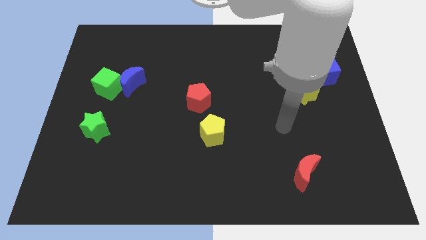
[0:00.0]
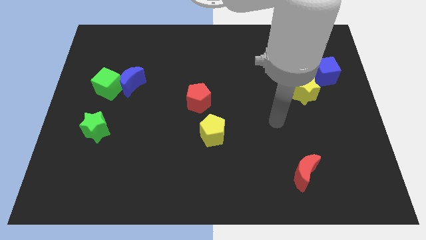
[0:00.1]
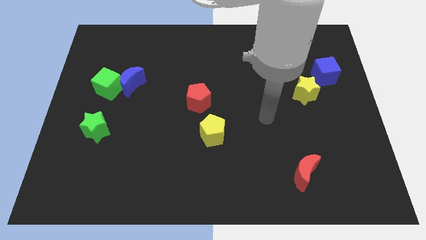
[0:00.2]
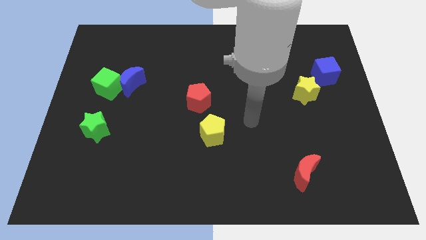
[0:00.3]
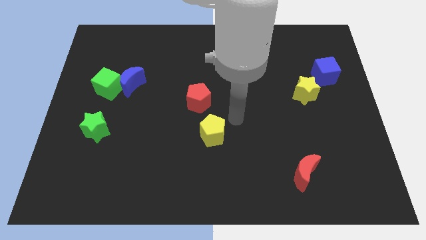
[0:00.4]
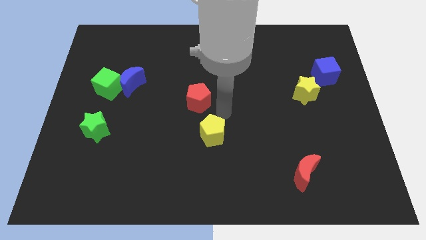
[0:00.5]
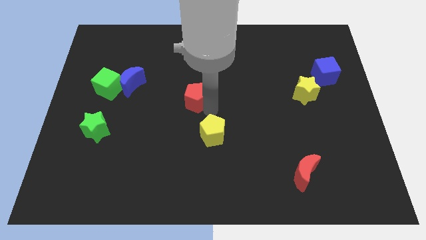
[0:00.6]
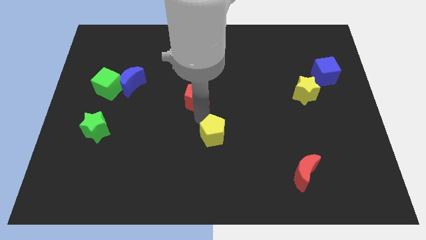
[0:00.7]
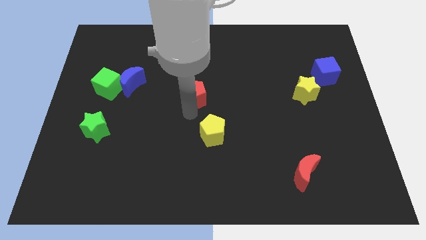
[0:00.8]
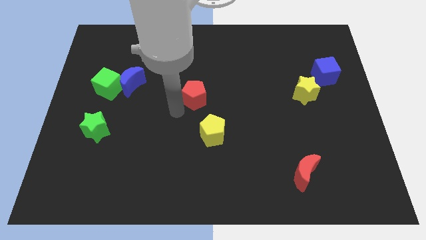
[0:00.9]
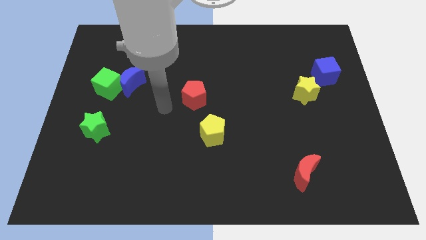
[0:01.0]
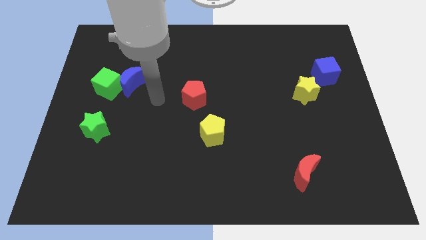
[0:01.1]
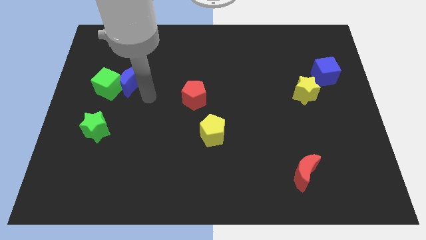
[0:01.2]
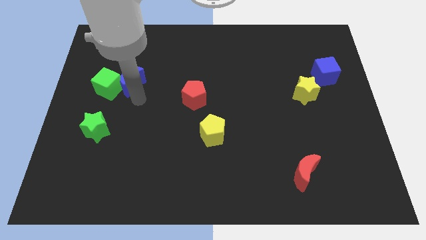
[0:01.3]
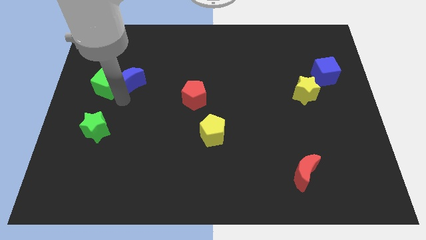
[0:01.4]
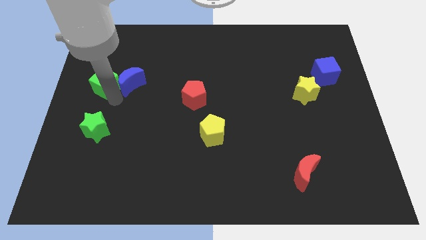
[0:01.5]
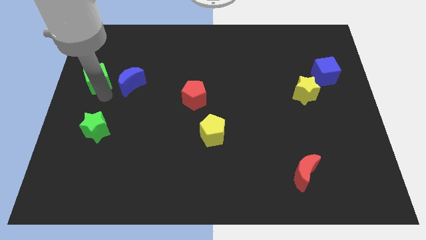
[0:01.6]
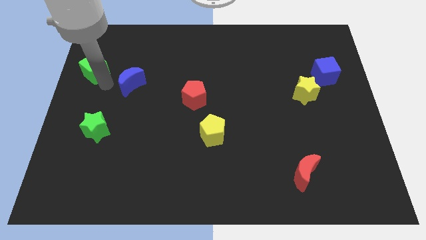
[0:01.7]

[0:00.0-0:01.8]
move the blue moon away from the green cube

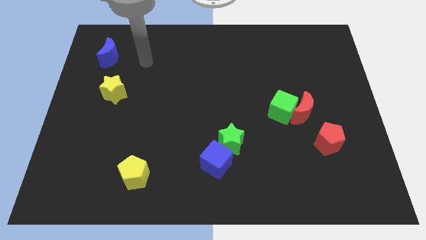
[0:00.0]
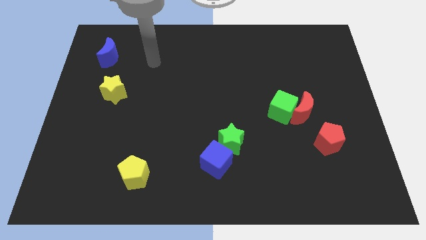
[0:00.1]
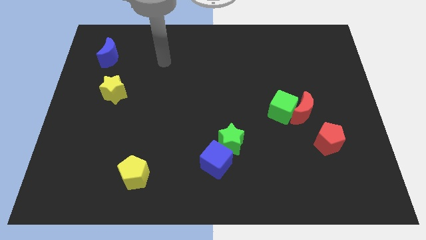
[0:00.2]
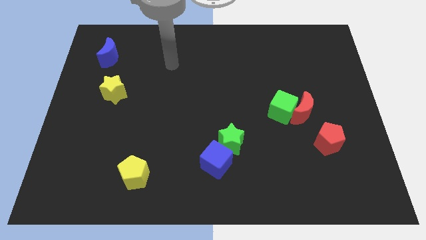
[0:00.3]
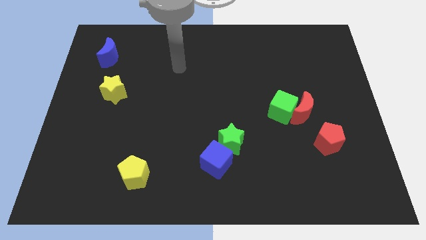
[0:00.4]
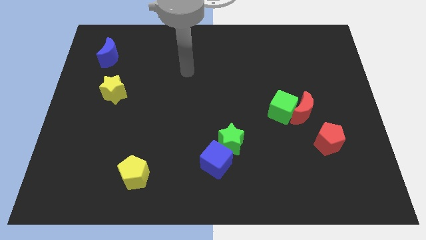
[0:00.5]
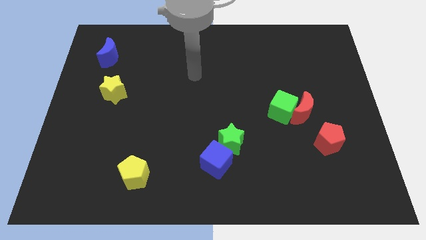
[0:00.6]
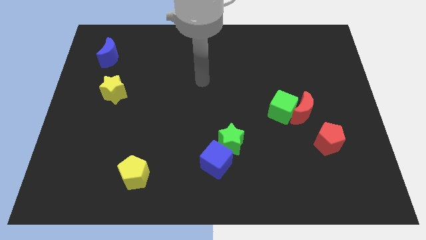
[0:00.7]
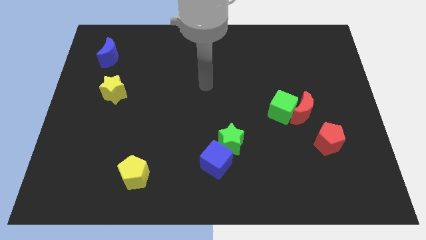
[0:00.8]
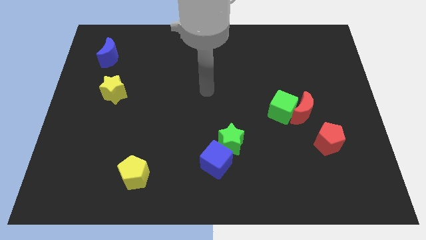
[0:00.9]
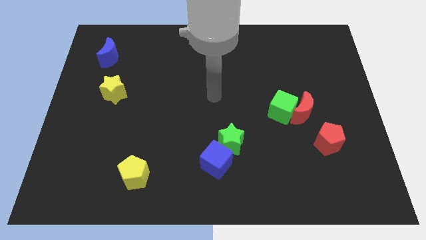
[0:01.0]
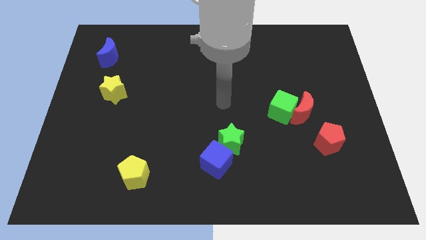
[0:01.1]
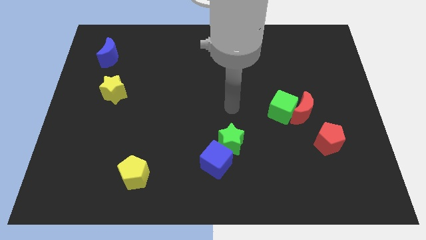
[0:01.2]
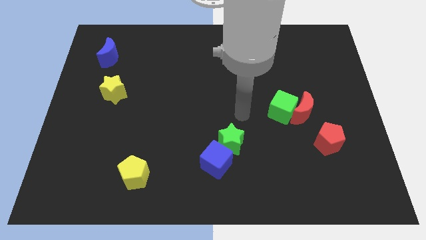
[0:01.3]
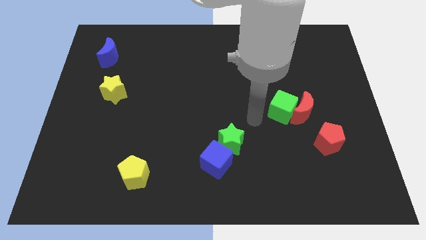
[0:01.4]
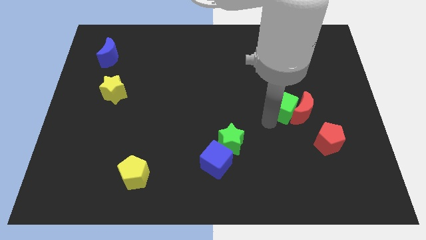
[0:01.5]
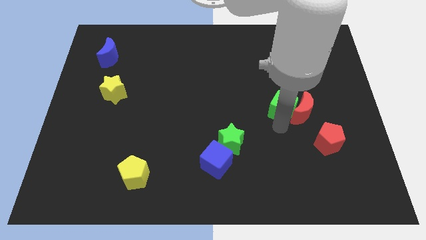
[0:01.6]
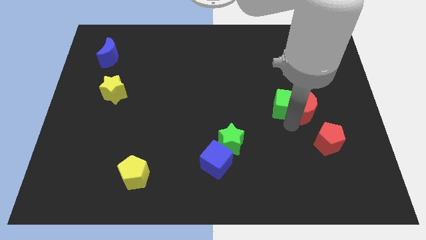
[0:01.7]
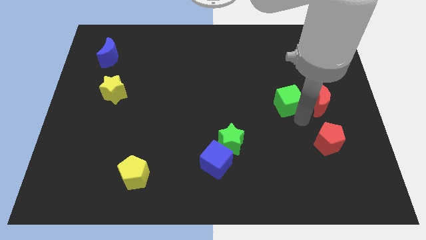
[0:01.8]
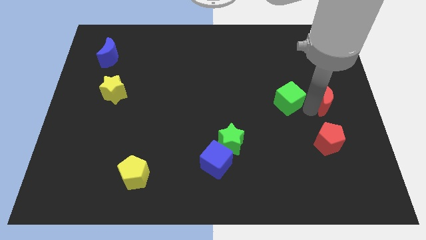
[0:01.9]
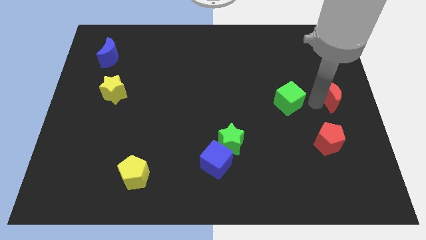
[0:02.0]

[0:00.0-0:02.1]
move the green cube away from the red moon

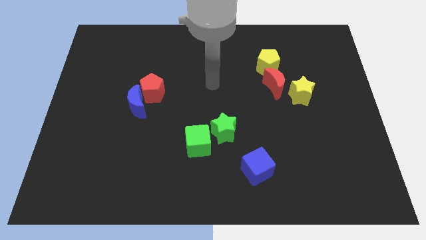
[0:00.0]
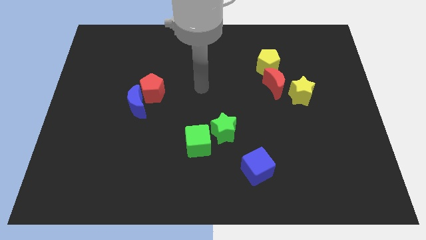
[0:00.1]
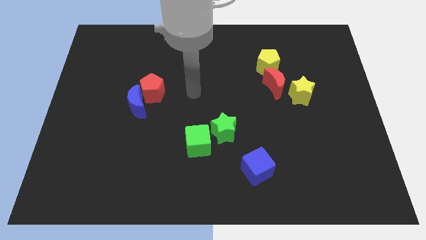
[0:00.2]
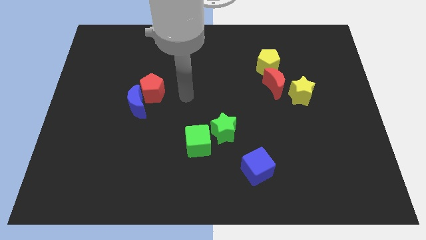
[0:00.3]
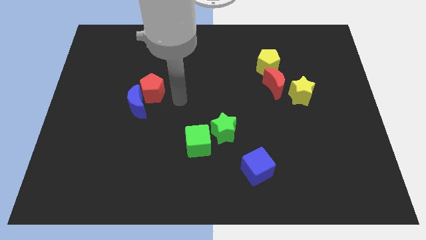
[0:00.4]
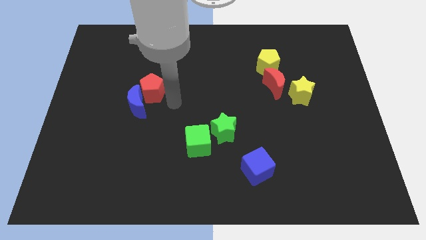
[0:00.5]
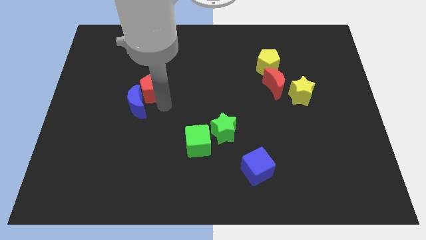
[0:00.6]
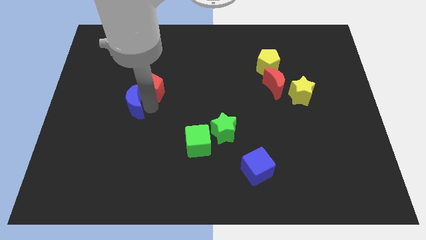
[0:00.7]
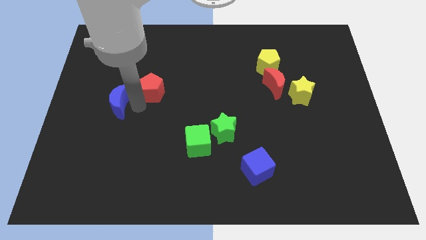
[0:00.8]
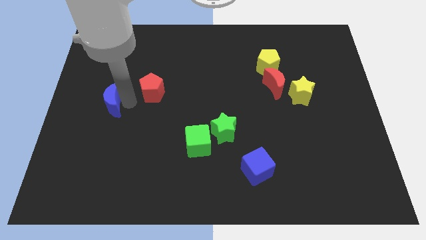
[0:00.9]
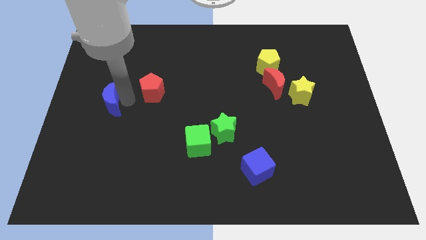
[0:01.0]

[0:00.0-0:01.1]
pull the red pentagon apart from the blue moon

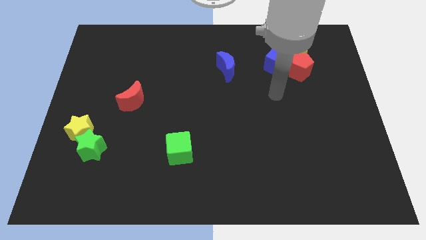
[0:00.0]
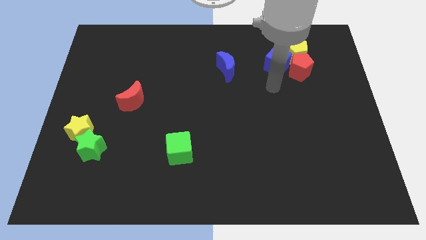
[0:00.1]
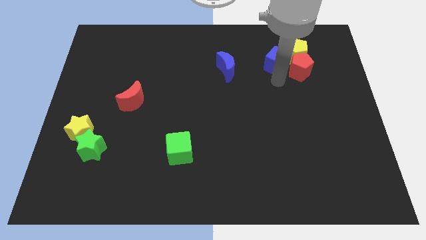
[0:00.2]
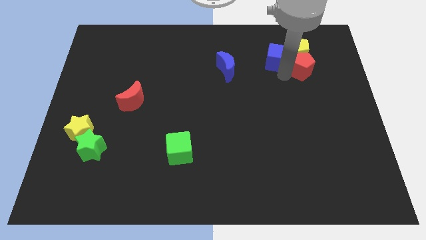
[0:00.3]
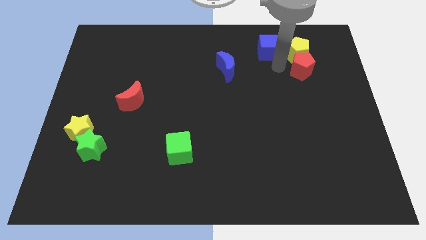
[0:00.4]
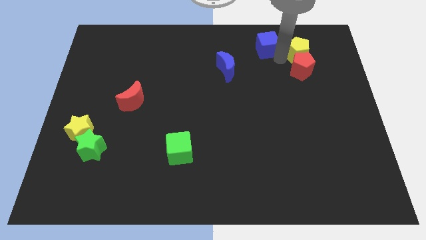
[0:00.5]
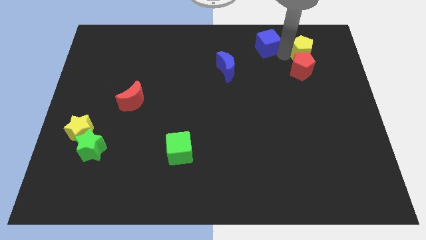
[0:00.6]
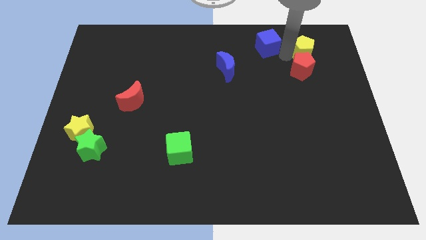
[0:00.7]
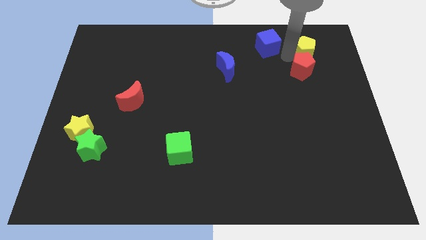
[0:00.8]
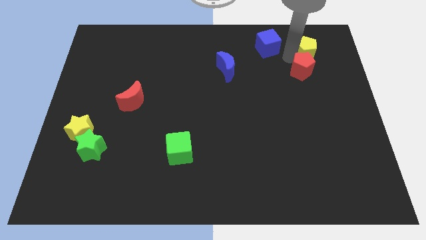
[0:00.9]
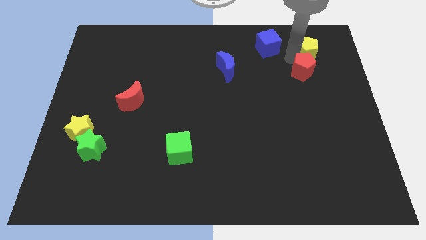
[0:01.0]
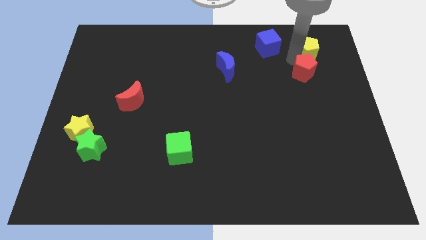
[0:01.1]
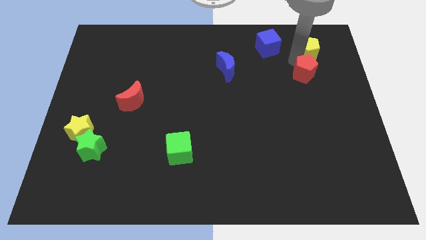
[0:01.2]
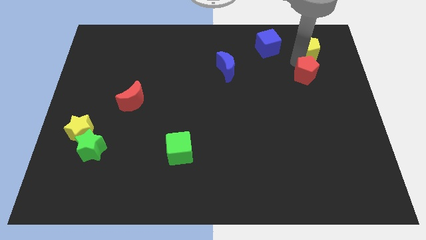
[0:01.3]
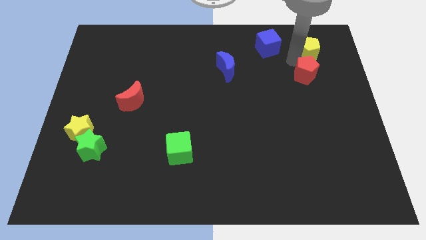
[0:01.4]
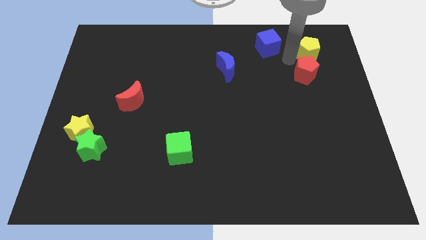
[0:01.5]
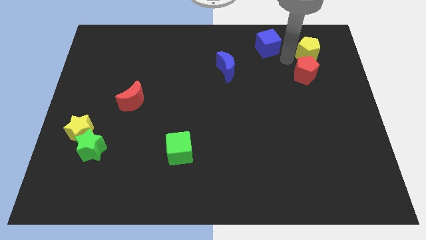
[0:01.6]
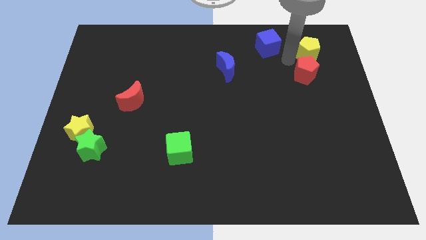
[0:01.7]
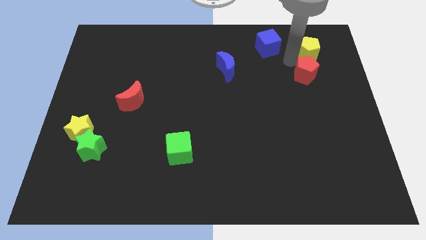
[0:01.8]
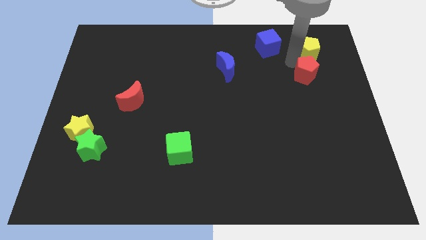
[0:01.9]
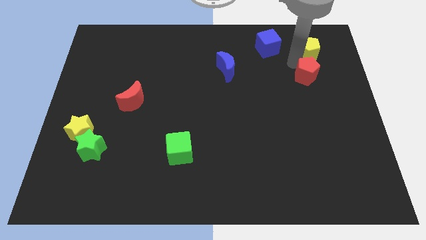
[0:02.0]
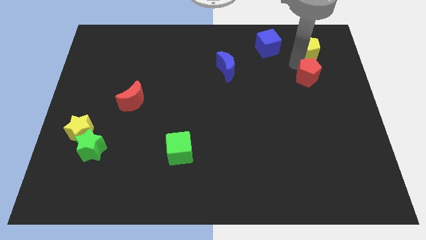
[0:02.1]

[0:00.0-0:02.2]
separate the red pentagon from the yellow pentagon and blue cube

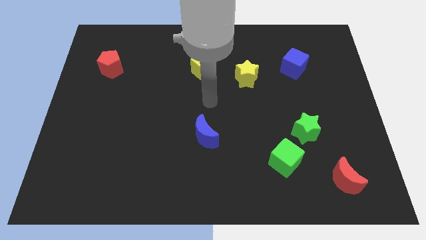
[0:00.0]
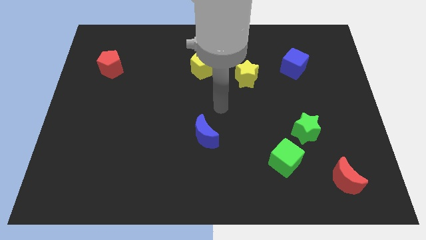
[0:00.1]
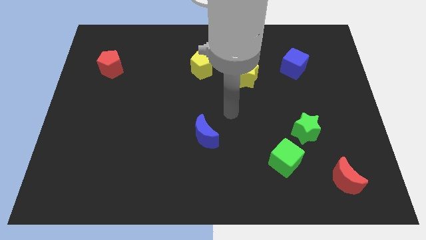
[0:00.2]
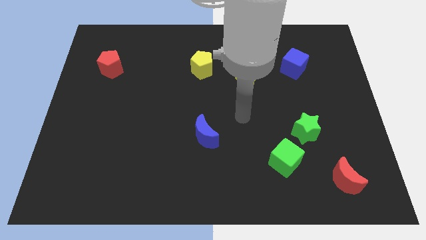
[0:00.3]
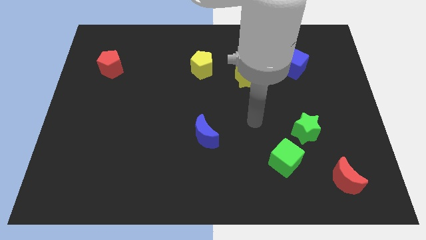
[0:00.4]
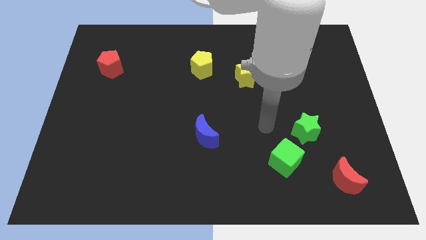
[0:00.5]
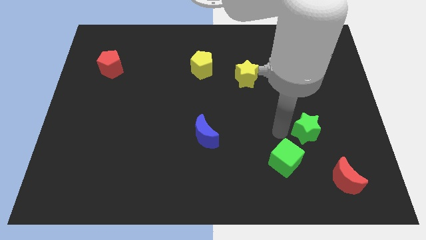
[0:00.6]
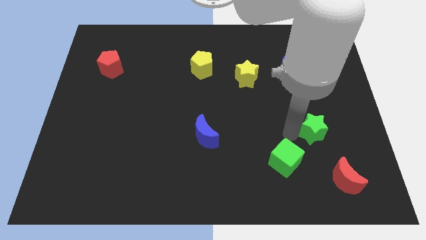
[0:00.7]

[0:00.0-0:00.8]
pull the green cube apart from the green star

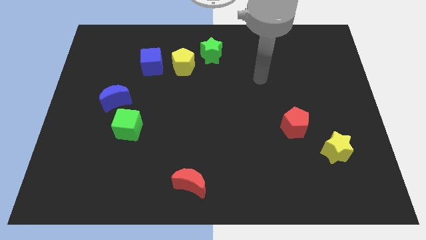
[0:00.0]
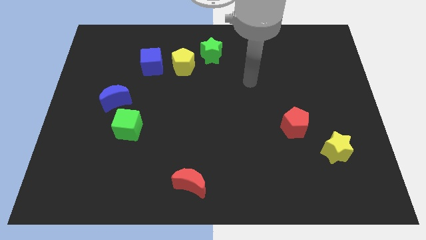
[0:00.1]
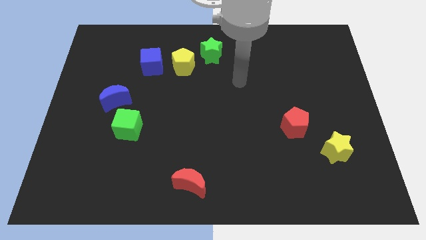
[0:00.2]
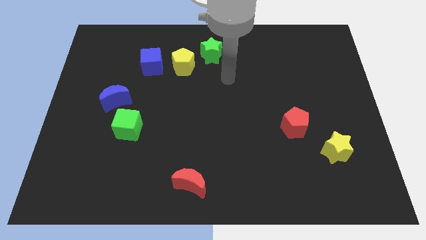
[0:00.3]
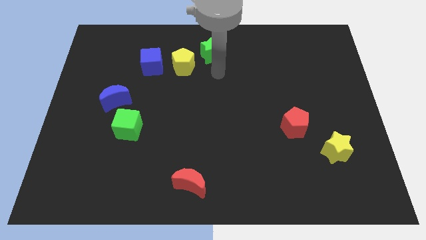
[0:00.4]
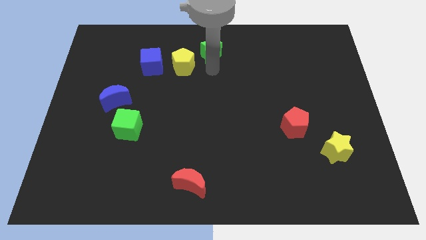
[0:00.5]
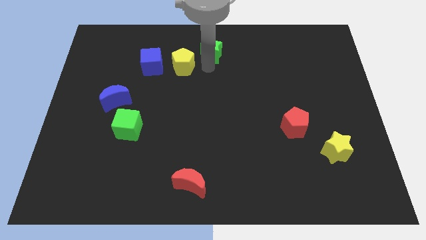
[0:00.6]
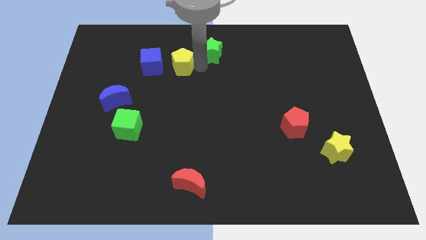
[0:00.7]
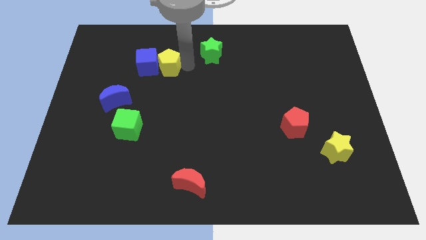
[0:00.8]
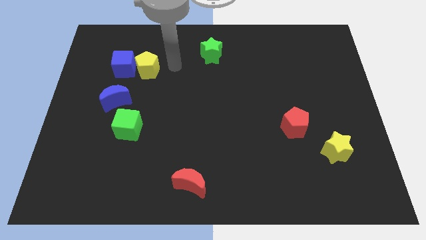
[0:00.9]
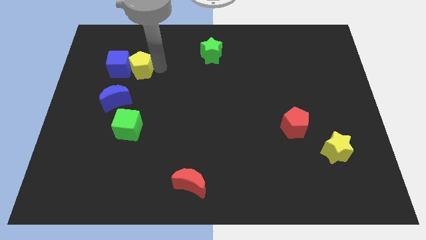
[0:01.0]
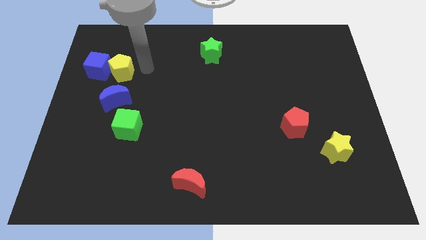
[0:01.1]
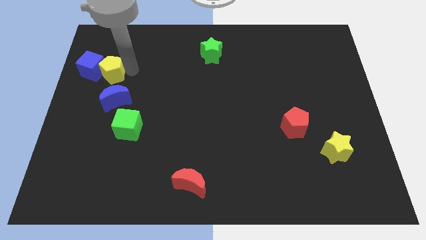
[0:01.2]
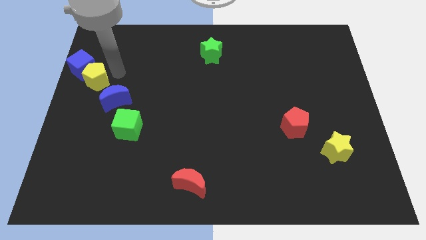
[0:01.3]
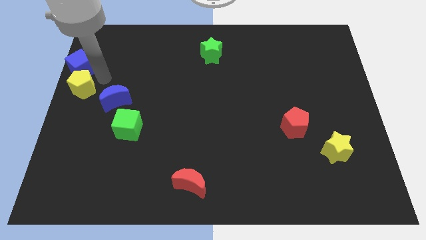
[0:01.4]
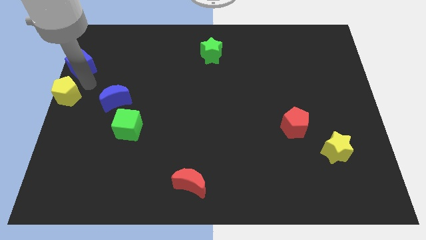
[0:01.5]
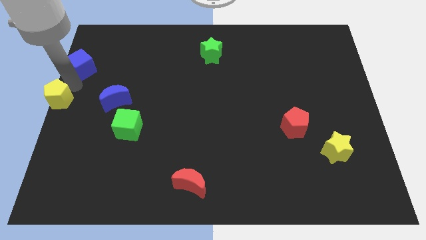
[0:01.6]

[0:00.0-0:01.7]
separate the blue cube from the yellow pentagon
